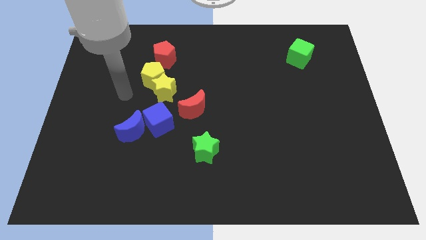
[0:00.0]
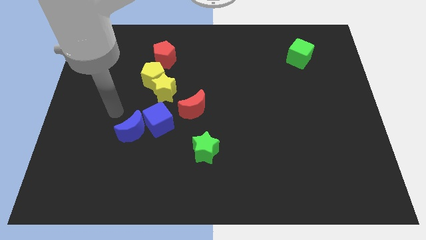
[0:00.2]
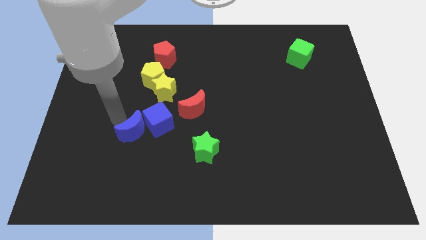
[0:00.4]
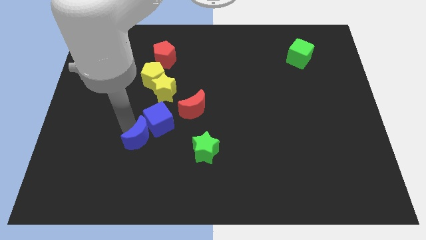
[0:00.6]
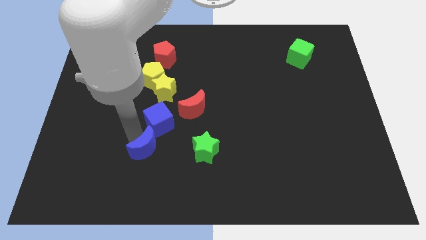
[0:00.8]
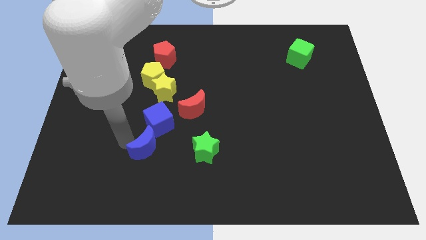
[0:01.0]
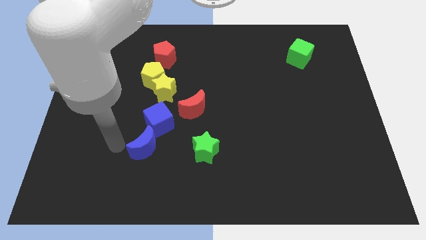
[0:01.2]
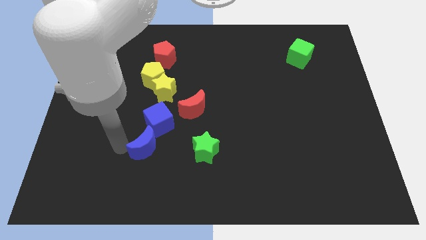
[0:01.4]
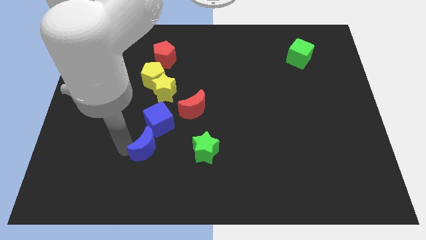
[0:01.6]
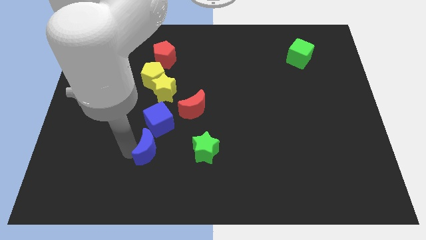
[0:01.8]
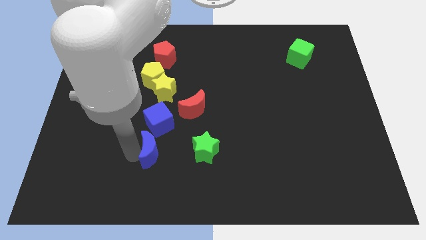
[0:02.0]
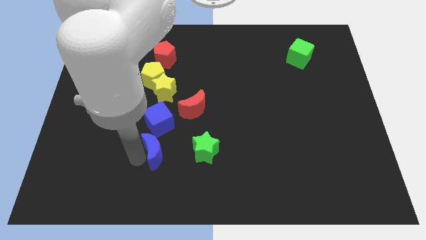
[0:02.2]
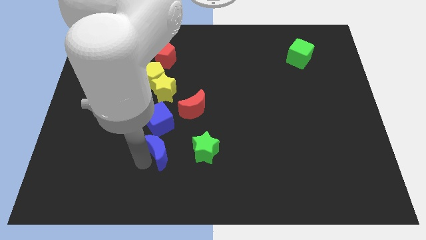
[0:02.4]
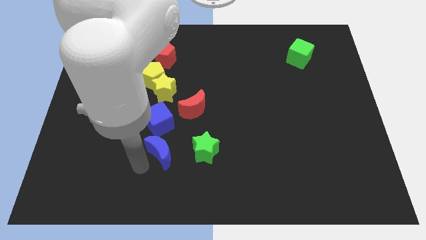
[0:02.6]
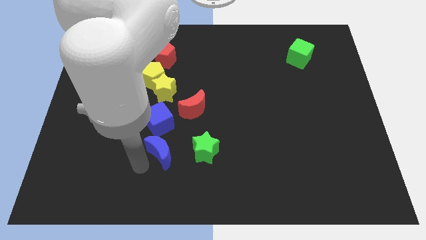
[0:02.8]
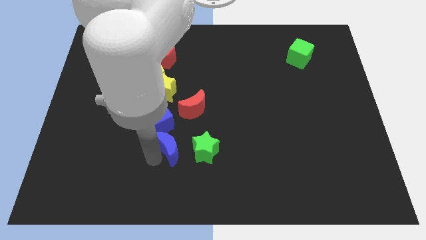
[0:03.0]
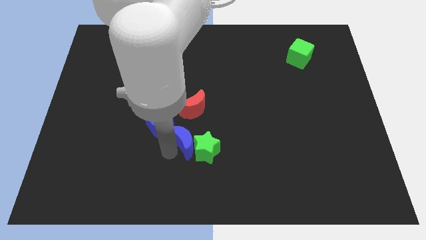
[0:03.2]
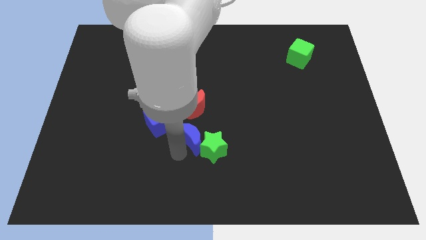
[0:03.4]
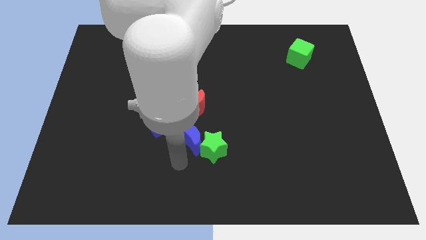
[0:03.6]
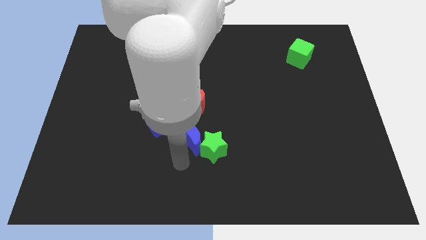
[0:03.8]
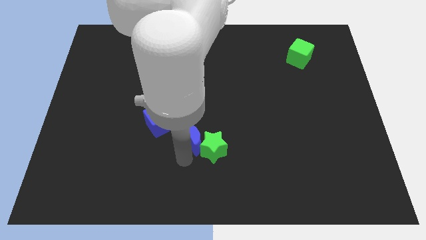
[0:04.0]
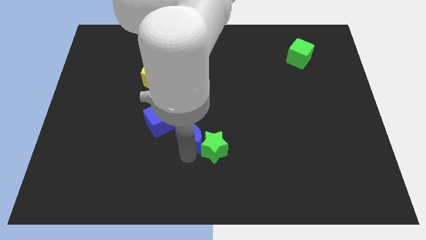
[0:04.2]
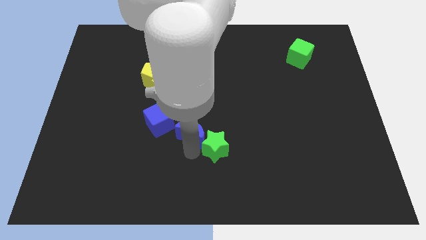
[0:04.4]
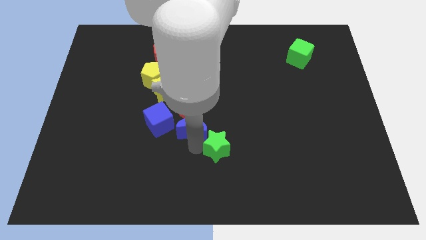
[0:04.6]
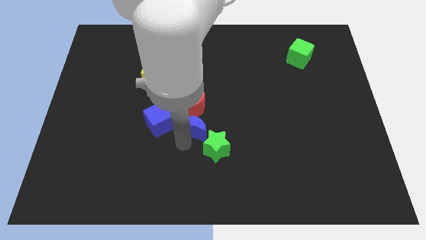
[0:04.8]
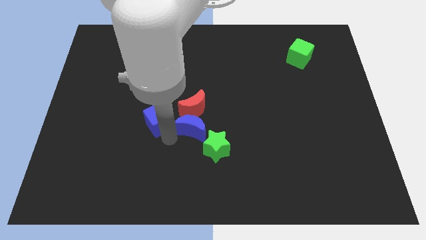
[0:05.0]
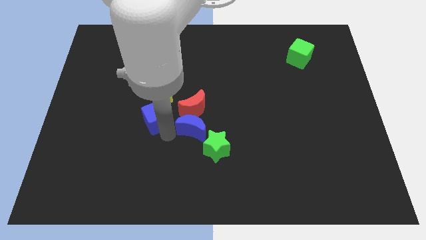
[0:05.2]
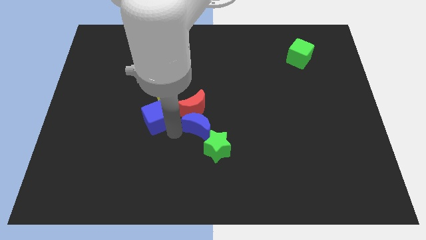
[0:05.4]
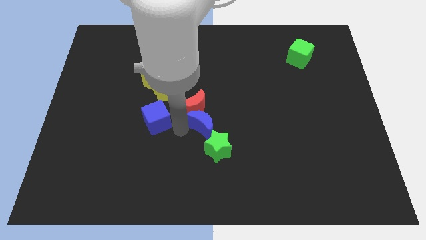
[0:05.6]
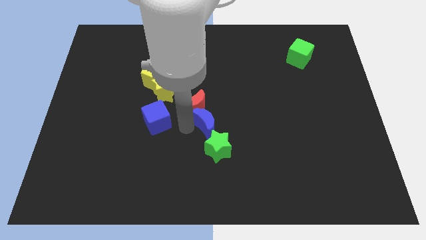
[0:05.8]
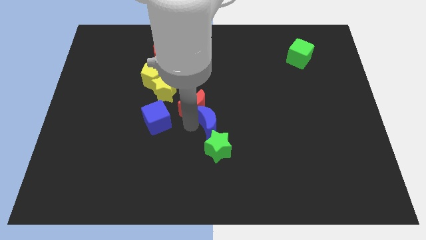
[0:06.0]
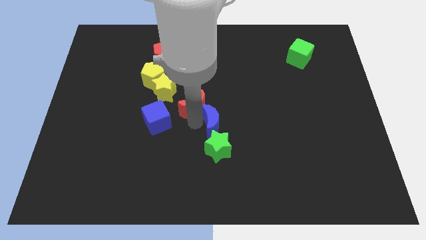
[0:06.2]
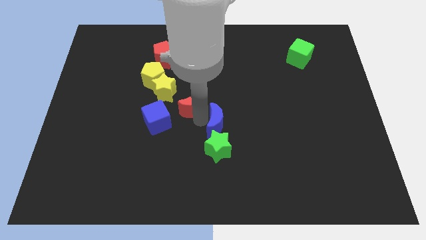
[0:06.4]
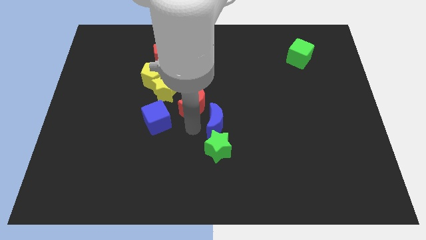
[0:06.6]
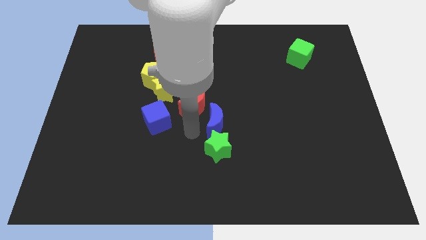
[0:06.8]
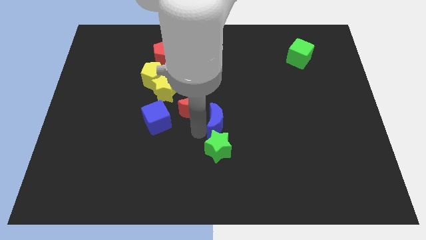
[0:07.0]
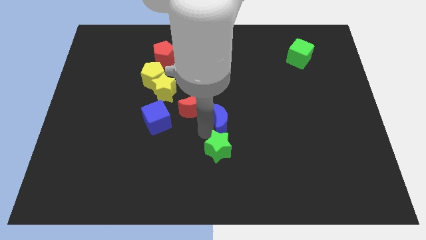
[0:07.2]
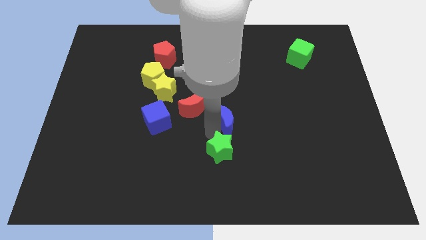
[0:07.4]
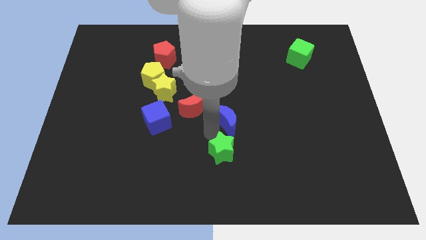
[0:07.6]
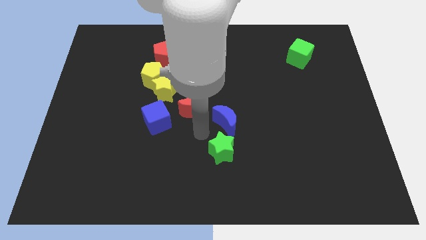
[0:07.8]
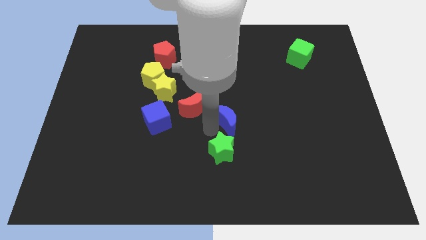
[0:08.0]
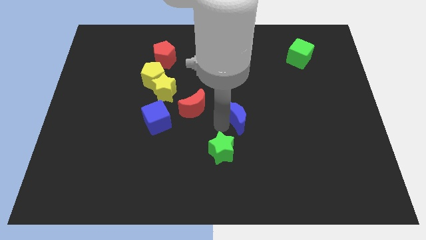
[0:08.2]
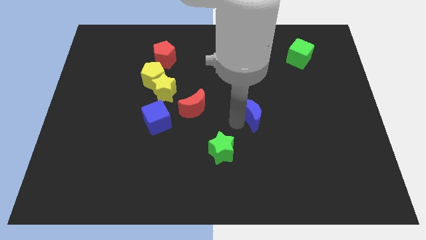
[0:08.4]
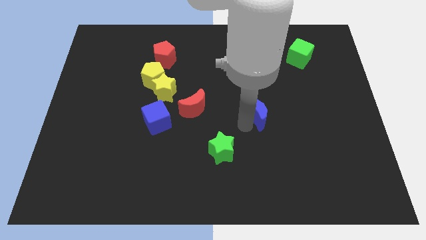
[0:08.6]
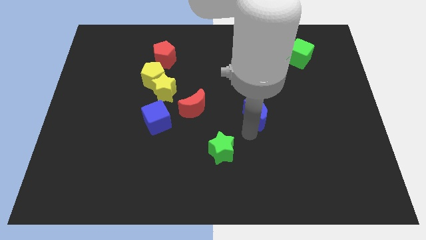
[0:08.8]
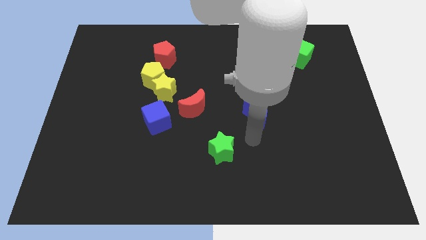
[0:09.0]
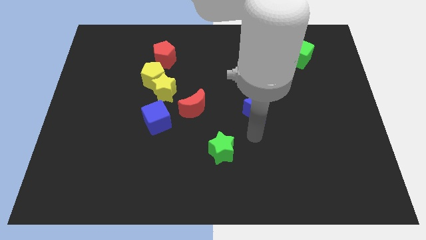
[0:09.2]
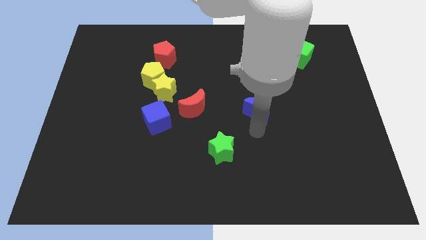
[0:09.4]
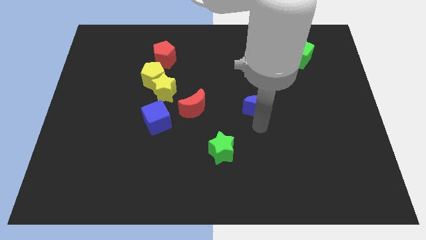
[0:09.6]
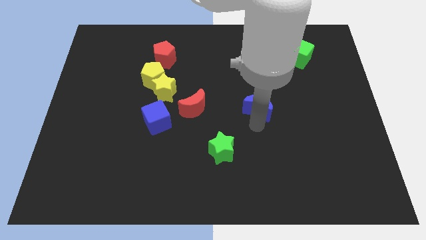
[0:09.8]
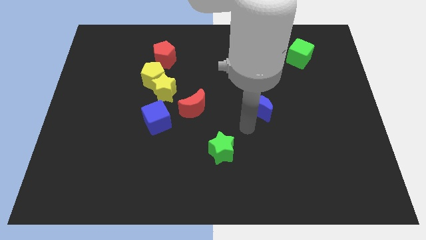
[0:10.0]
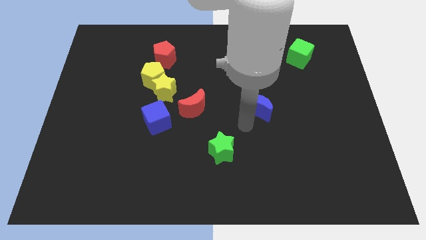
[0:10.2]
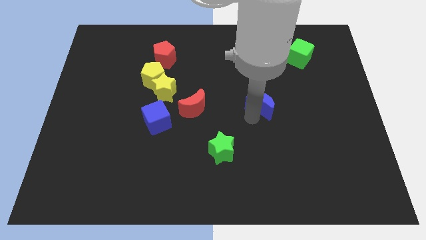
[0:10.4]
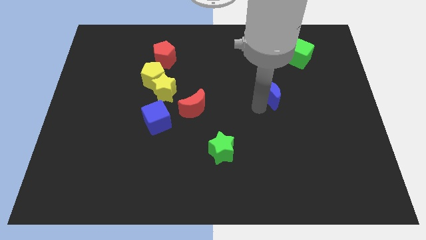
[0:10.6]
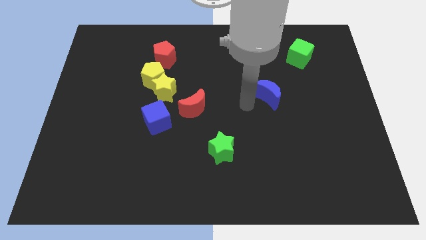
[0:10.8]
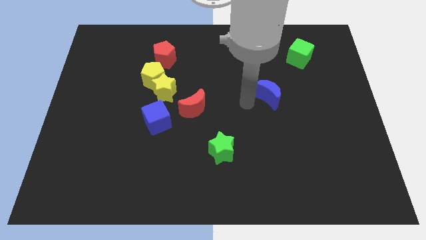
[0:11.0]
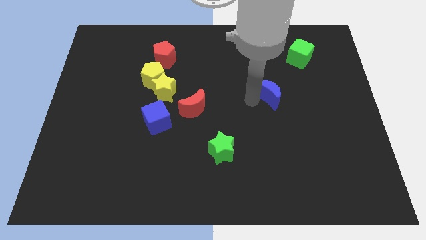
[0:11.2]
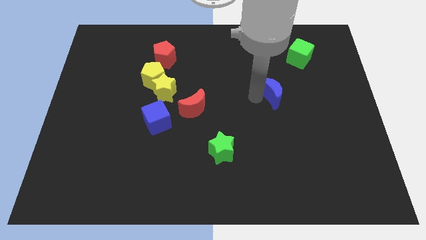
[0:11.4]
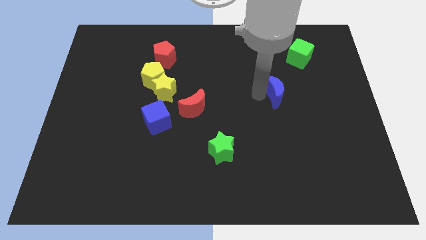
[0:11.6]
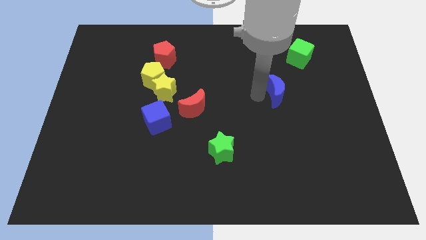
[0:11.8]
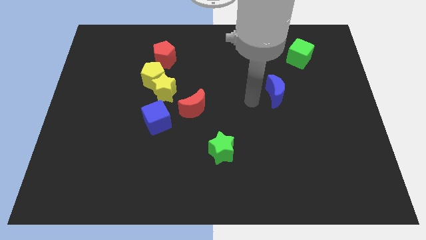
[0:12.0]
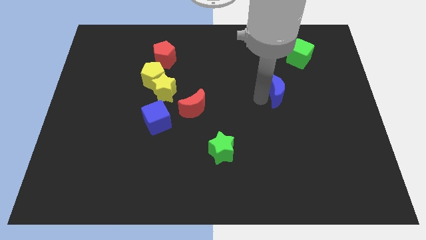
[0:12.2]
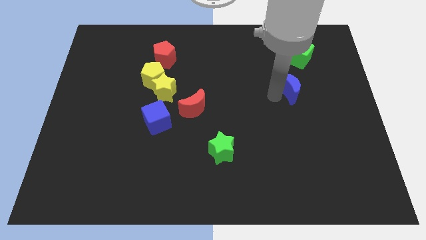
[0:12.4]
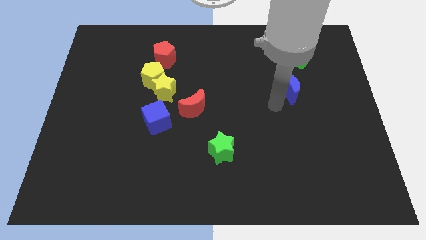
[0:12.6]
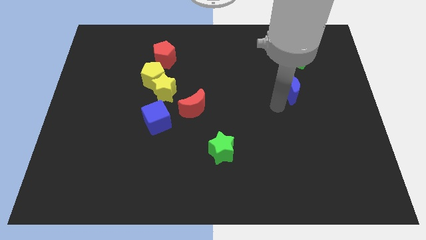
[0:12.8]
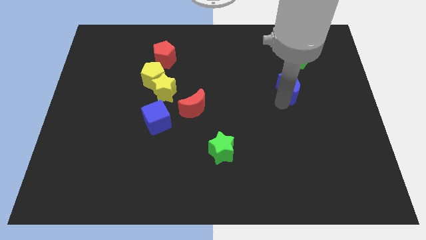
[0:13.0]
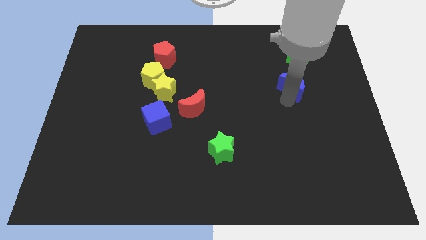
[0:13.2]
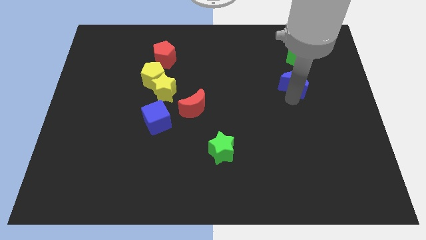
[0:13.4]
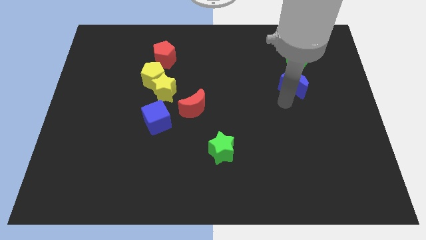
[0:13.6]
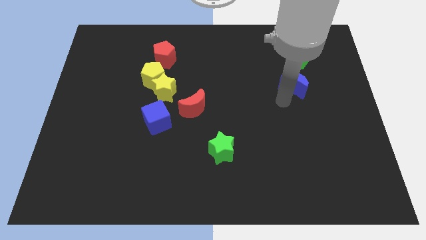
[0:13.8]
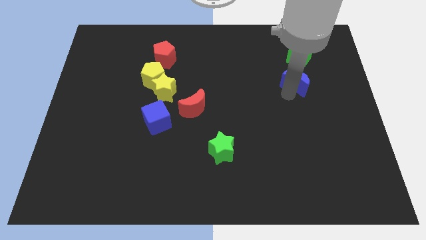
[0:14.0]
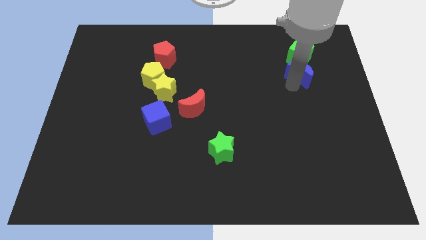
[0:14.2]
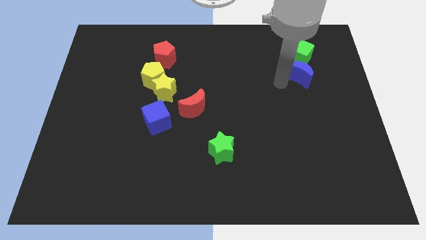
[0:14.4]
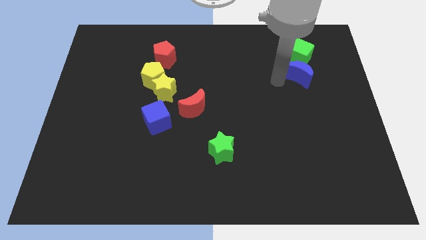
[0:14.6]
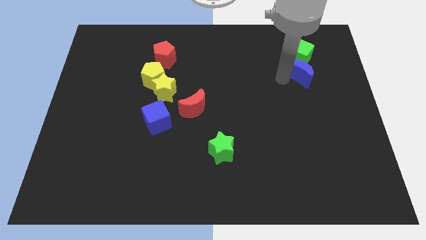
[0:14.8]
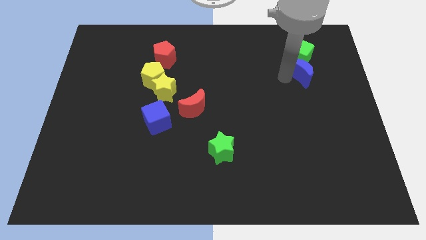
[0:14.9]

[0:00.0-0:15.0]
put the blue moon to the bottom right side of the green cube

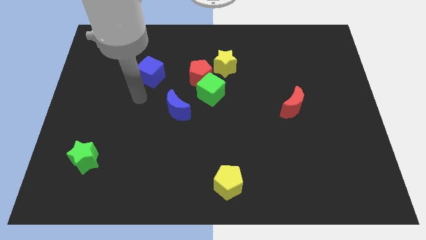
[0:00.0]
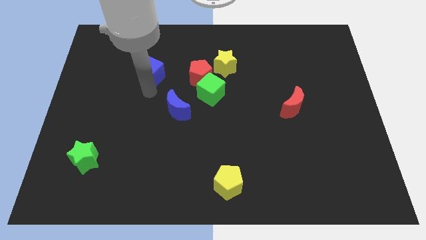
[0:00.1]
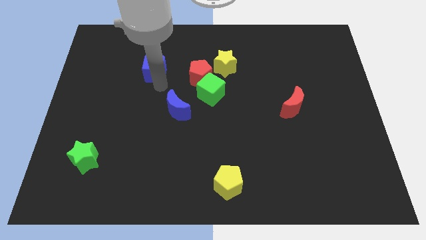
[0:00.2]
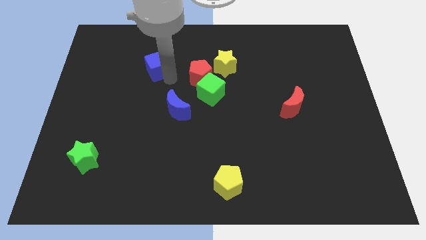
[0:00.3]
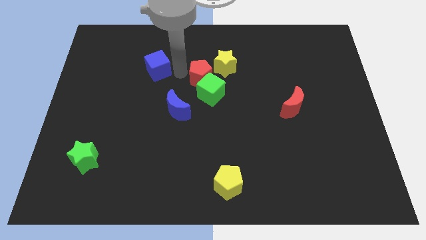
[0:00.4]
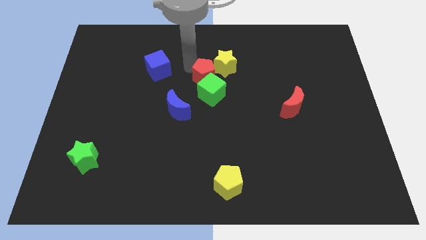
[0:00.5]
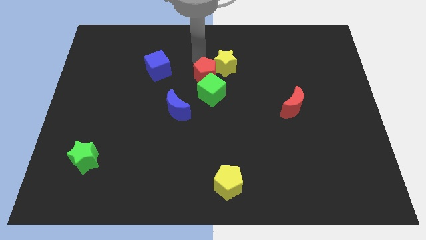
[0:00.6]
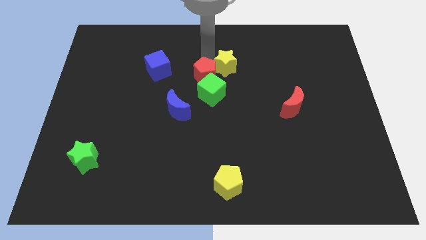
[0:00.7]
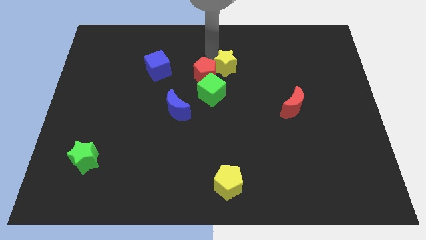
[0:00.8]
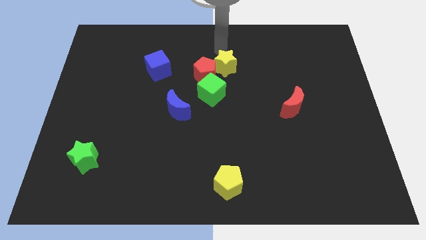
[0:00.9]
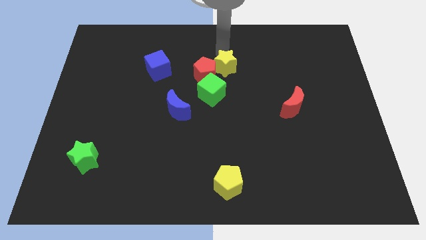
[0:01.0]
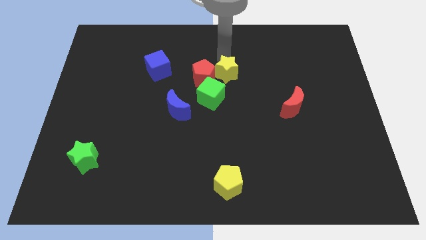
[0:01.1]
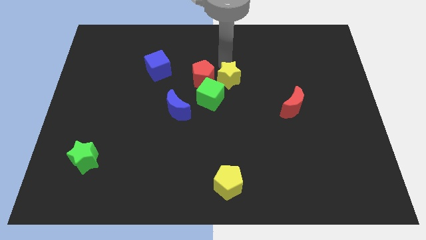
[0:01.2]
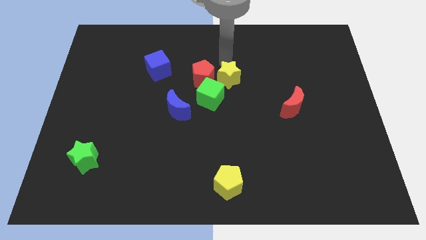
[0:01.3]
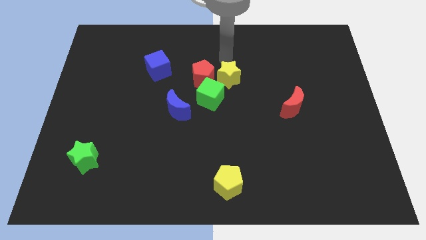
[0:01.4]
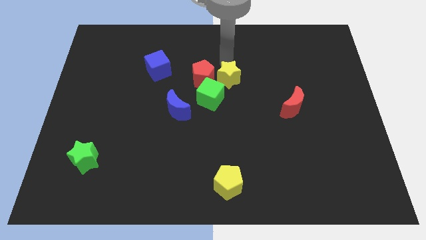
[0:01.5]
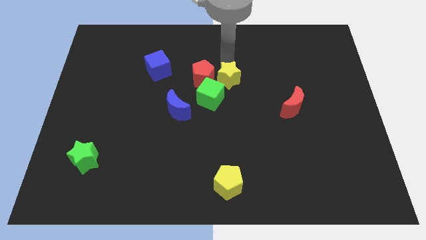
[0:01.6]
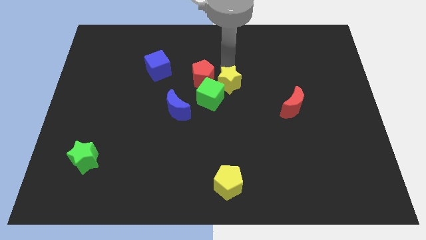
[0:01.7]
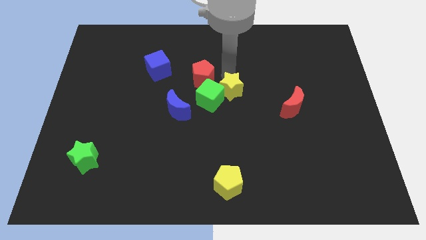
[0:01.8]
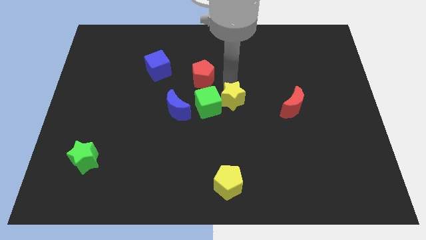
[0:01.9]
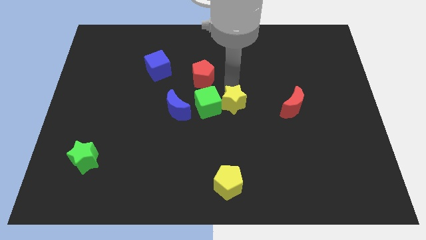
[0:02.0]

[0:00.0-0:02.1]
slide the yellow star to the bottom right side of the green cube
